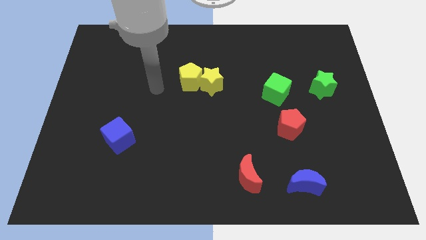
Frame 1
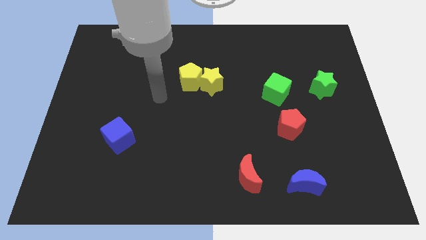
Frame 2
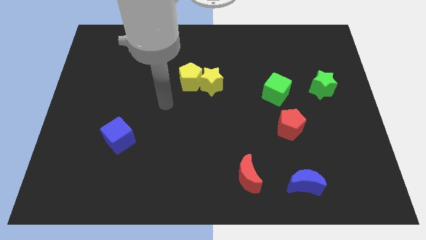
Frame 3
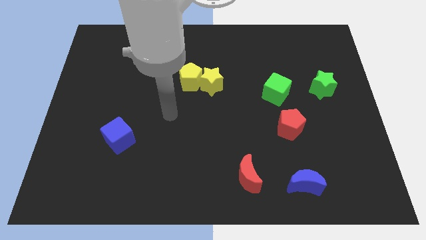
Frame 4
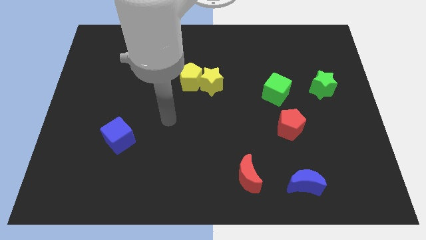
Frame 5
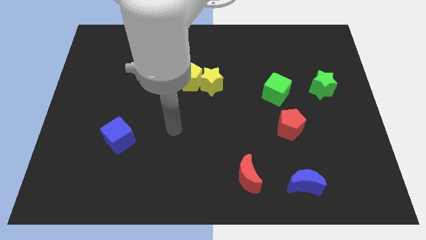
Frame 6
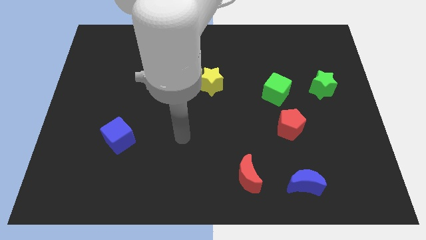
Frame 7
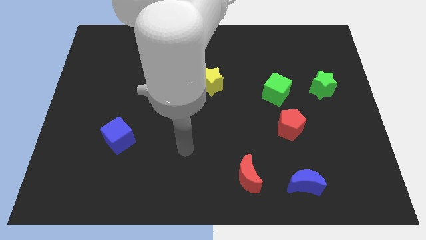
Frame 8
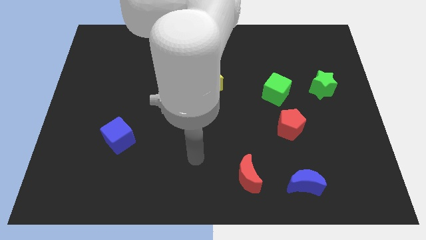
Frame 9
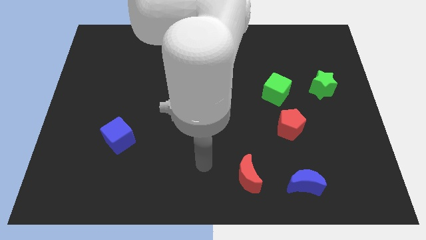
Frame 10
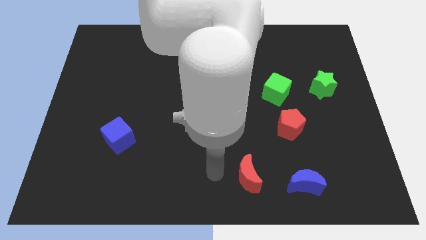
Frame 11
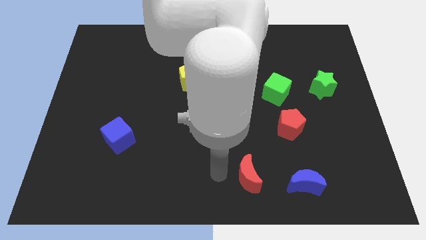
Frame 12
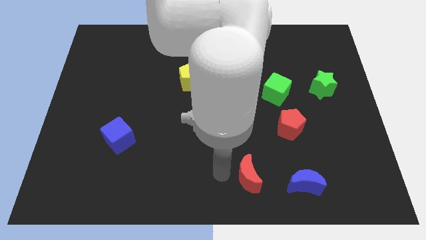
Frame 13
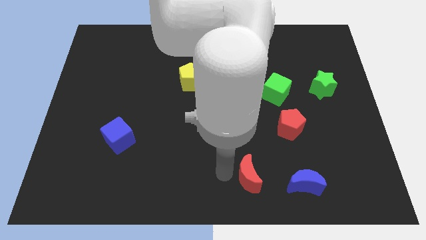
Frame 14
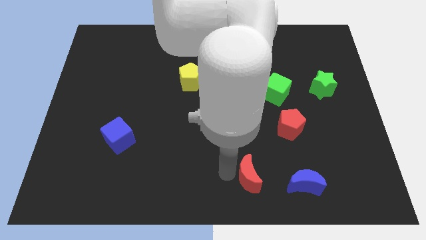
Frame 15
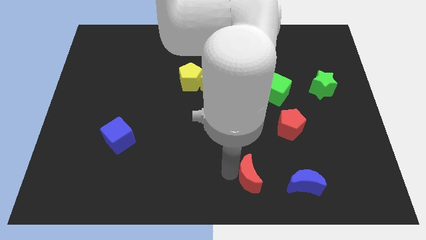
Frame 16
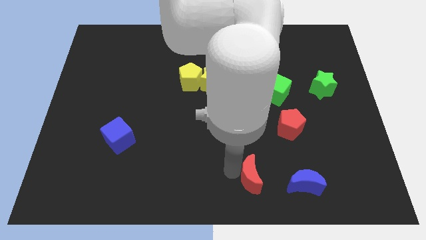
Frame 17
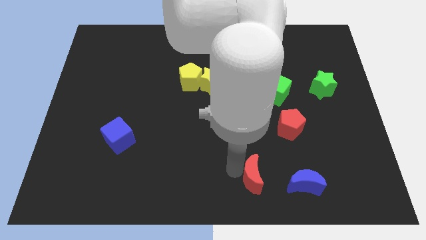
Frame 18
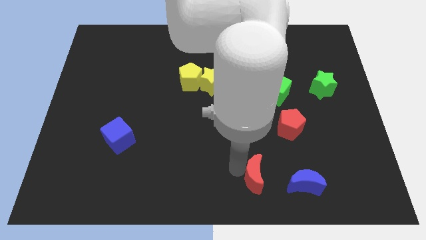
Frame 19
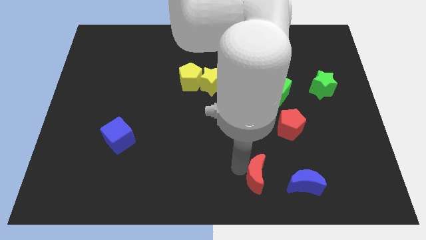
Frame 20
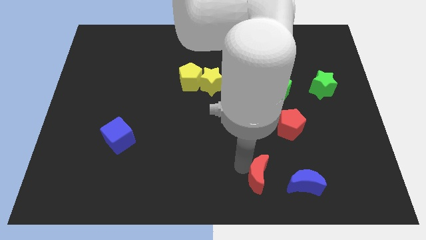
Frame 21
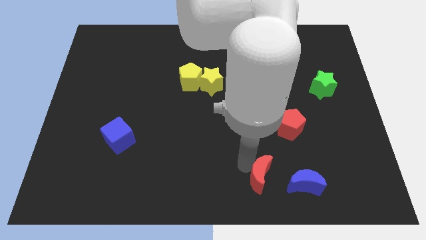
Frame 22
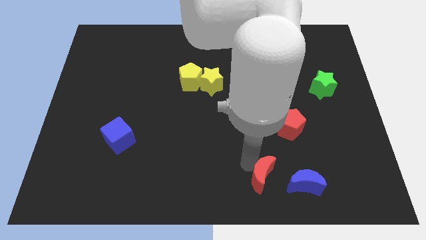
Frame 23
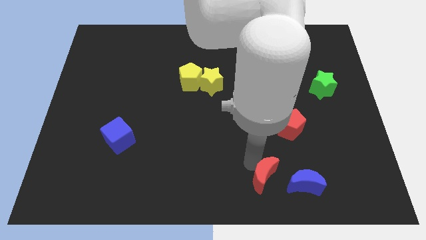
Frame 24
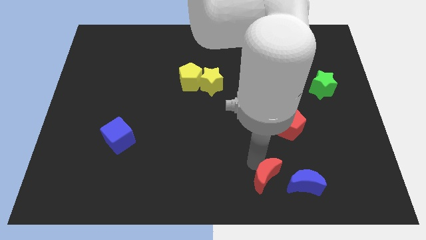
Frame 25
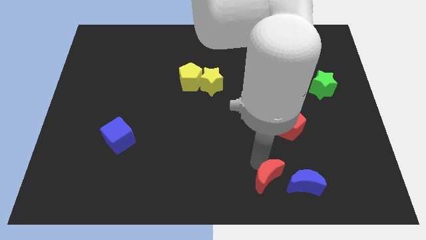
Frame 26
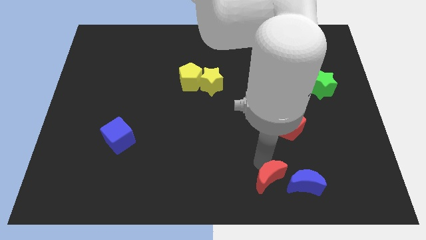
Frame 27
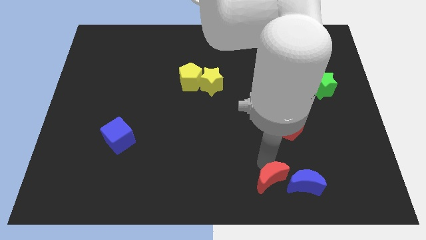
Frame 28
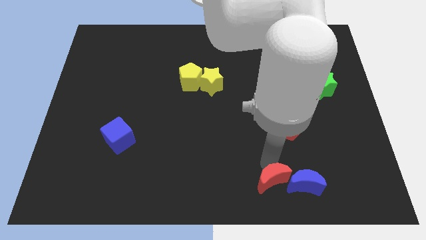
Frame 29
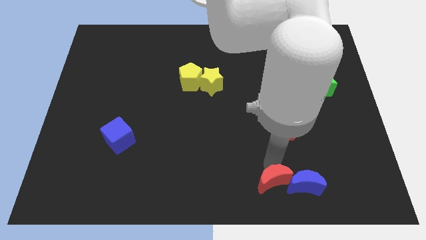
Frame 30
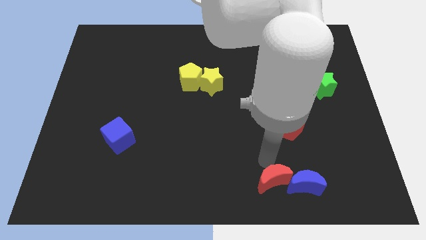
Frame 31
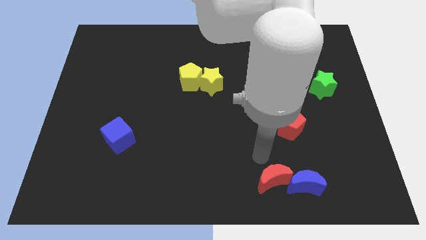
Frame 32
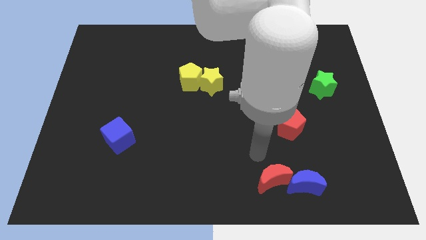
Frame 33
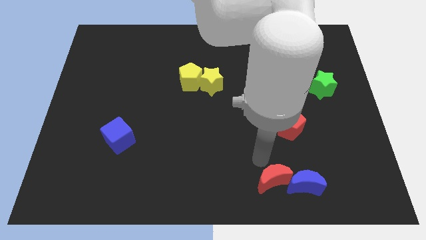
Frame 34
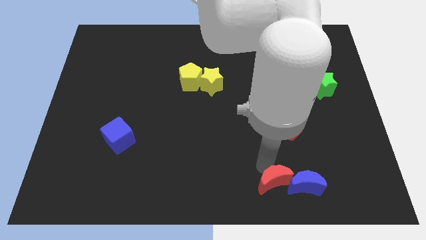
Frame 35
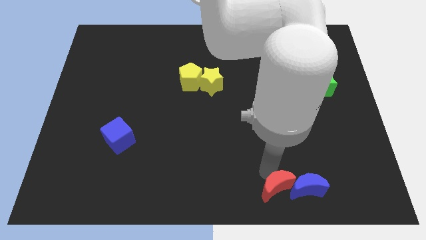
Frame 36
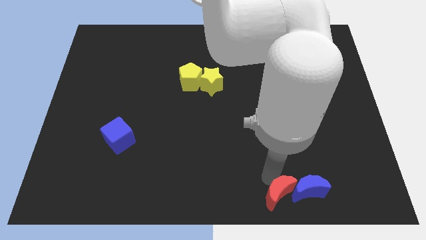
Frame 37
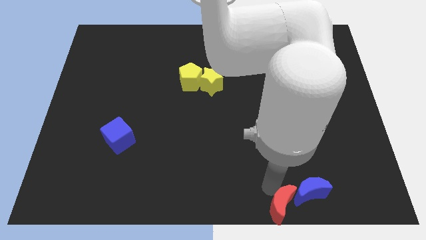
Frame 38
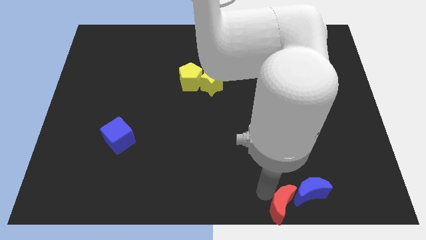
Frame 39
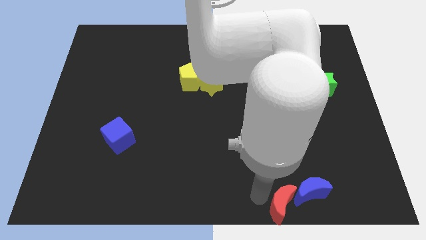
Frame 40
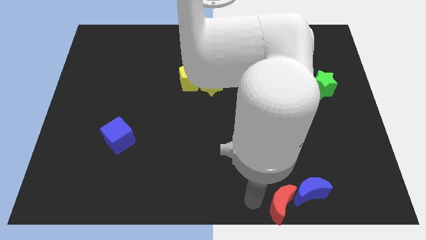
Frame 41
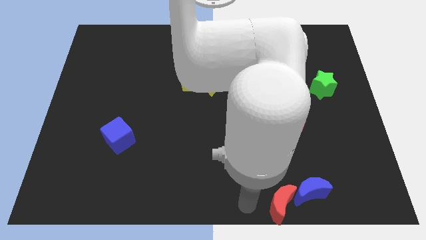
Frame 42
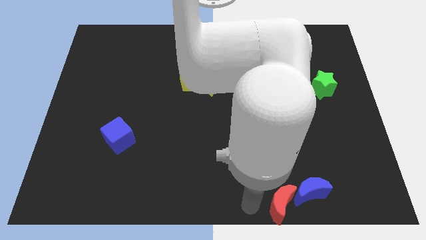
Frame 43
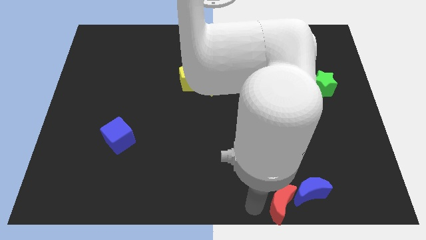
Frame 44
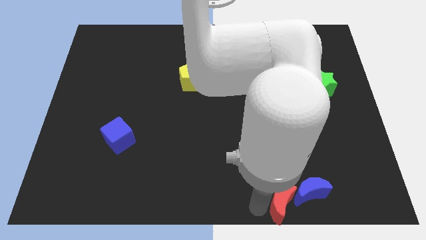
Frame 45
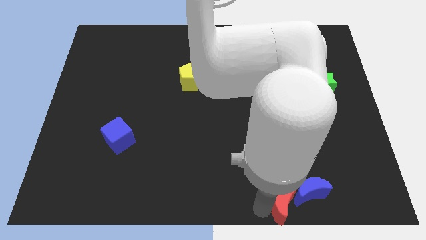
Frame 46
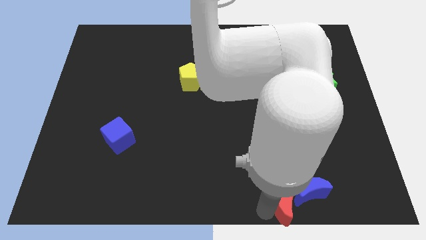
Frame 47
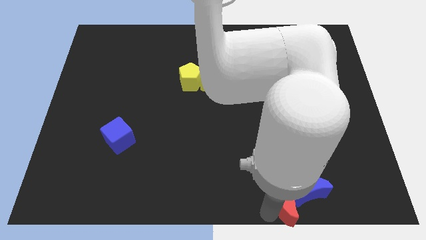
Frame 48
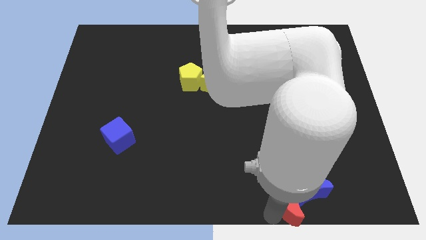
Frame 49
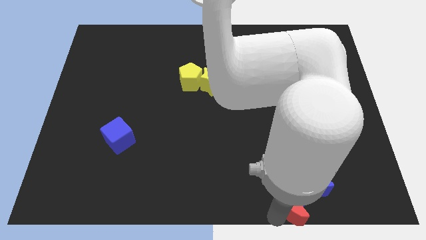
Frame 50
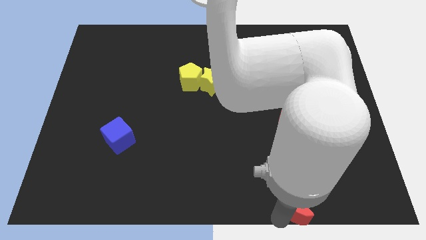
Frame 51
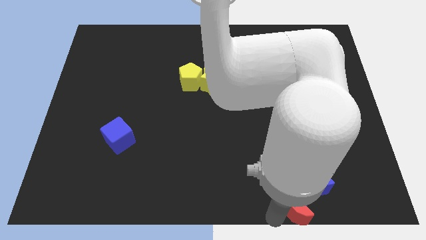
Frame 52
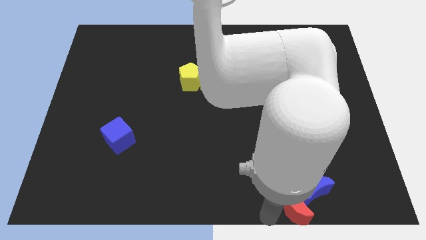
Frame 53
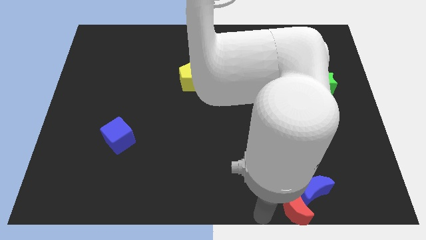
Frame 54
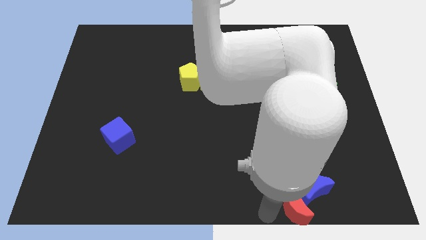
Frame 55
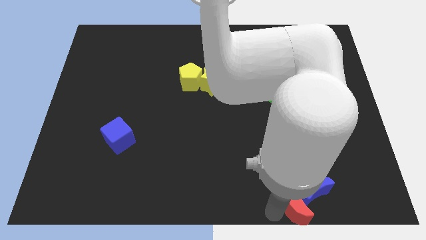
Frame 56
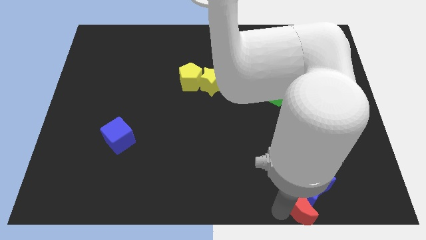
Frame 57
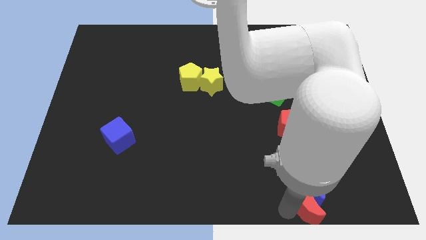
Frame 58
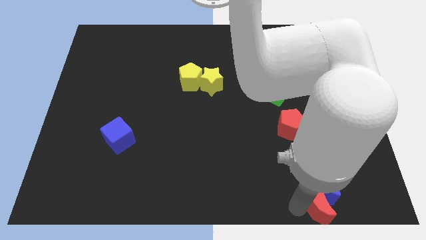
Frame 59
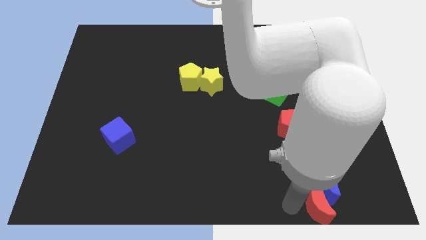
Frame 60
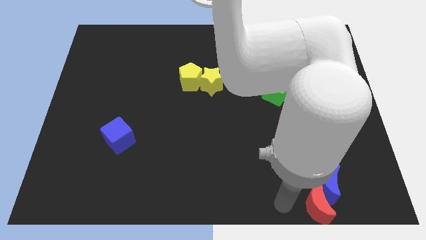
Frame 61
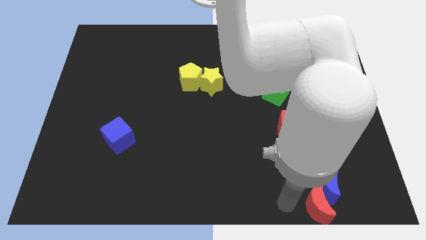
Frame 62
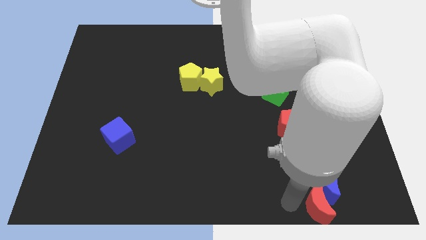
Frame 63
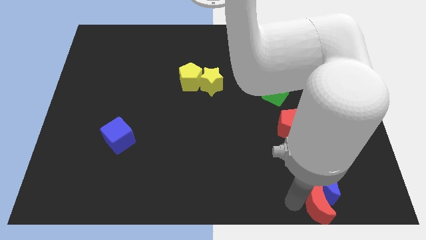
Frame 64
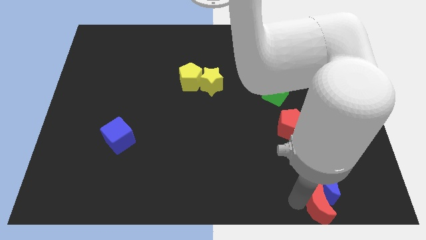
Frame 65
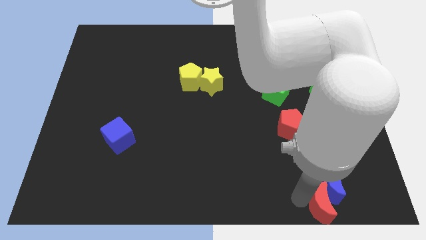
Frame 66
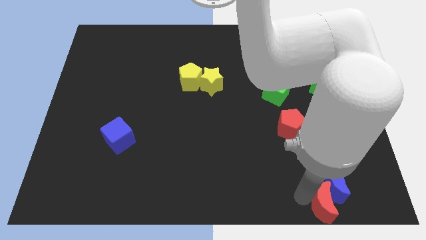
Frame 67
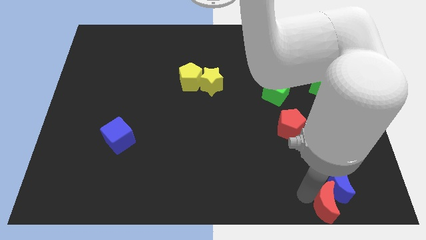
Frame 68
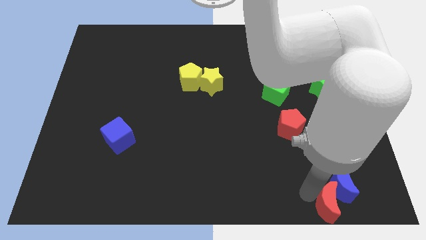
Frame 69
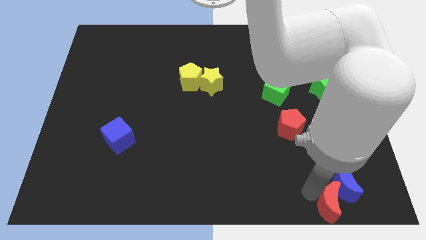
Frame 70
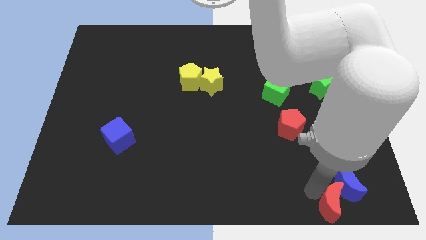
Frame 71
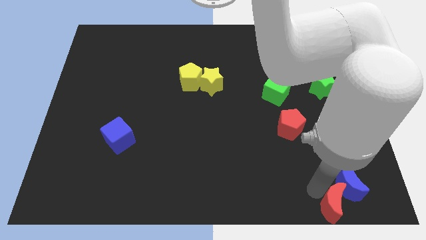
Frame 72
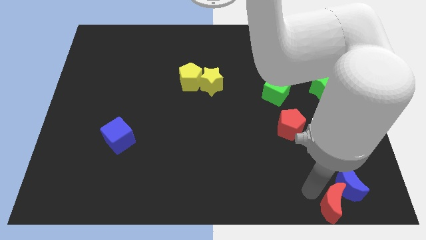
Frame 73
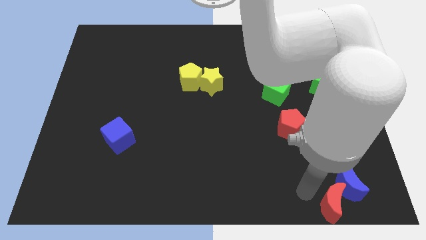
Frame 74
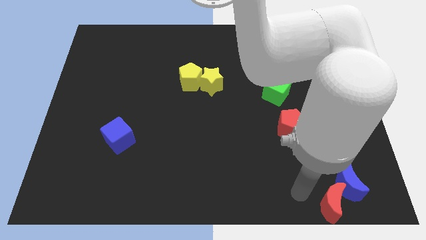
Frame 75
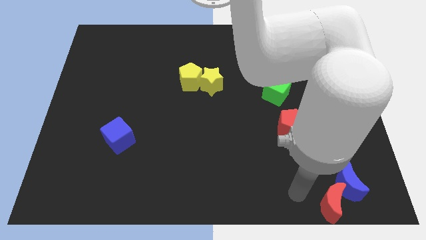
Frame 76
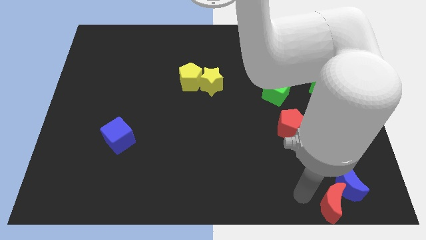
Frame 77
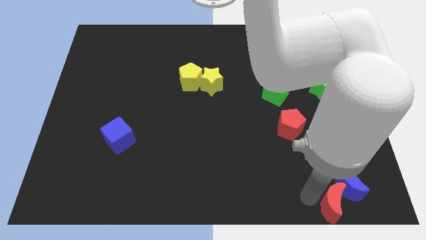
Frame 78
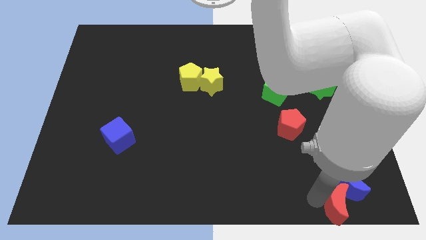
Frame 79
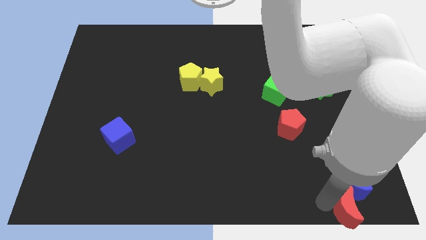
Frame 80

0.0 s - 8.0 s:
push the red moon to the lower right corner
